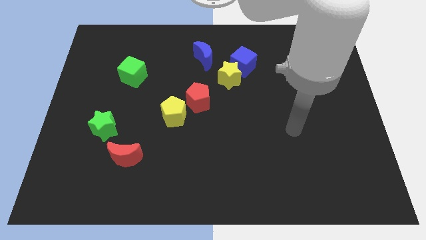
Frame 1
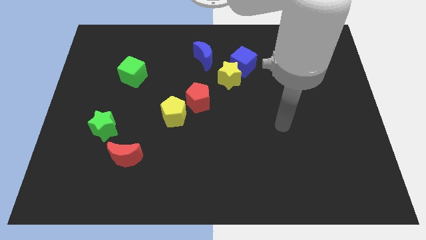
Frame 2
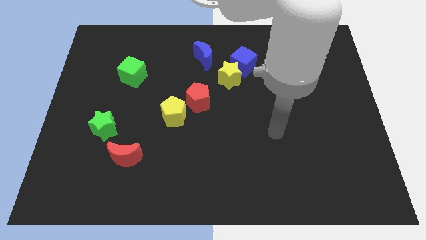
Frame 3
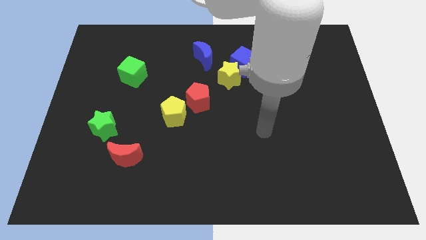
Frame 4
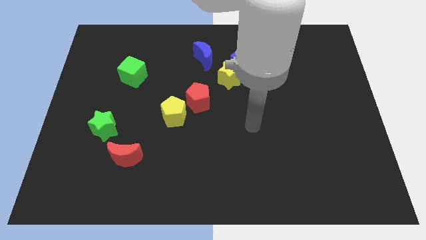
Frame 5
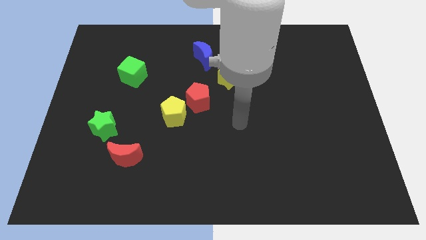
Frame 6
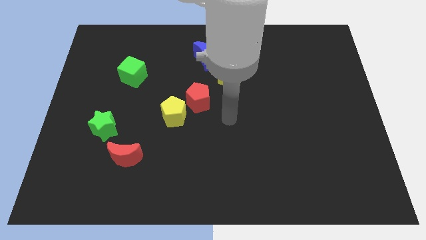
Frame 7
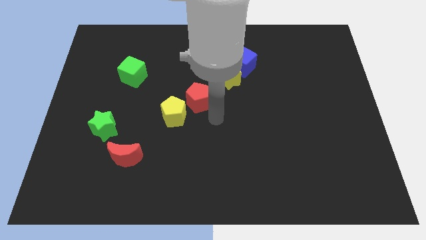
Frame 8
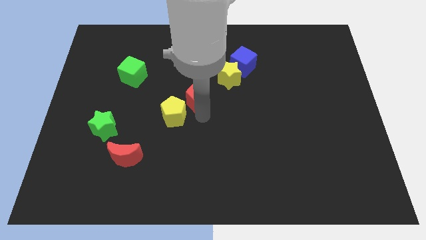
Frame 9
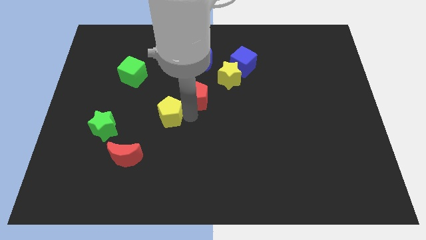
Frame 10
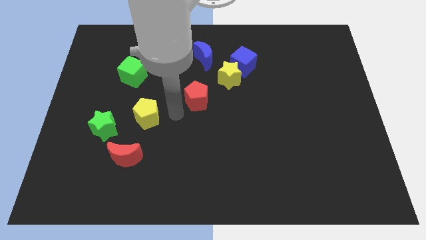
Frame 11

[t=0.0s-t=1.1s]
separate the red pentagon from the yellow pentagon

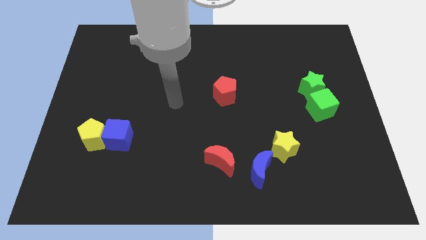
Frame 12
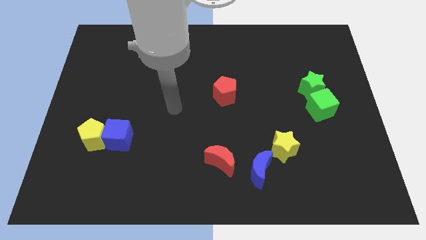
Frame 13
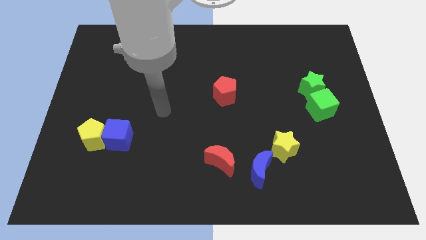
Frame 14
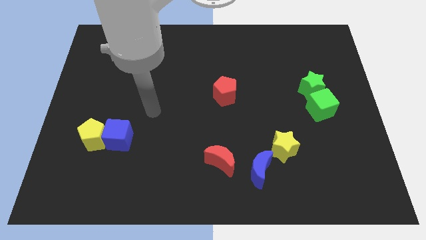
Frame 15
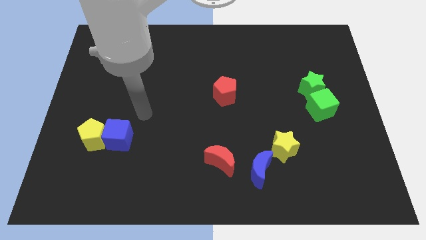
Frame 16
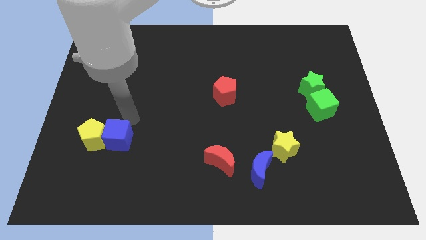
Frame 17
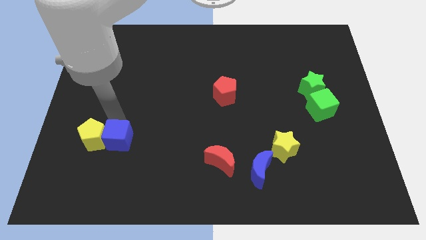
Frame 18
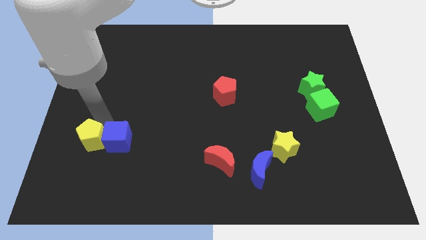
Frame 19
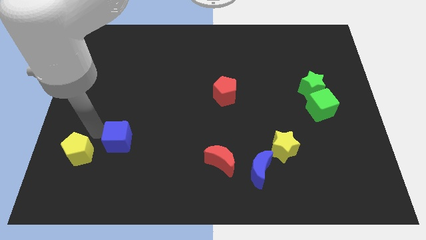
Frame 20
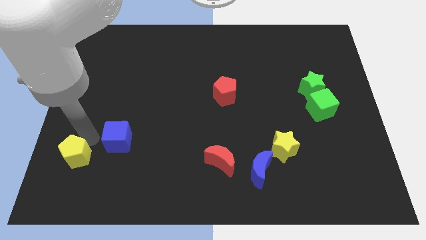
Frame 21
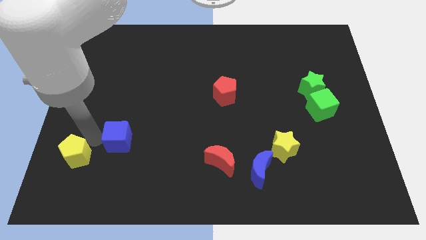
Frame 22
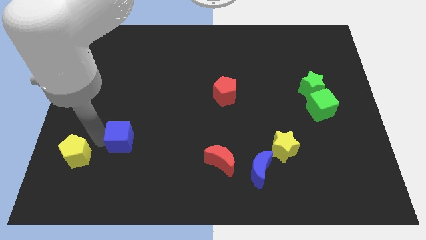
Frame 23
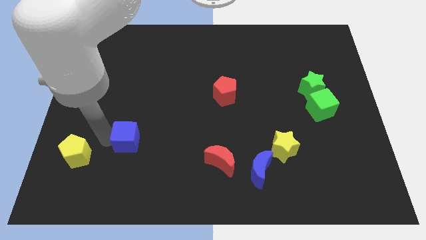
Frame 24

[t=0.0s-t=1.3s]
move the blue cube away from the yellow pentagon

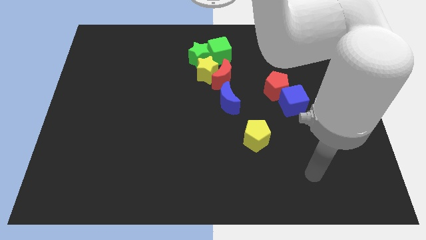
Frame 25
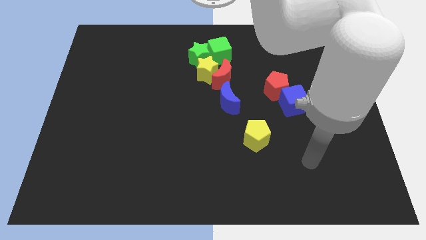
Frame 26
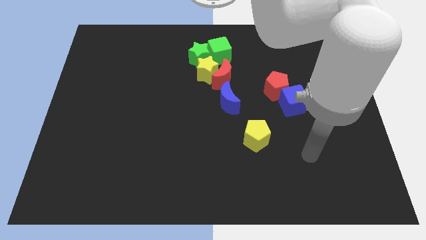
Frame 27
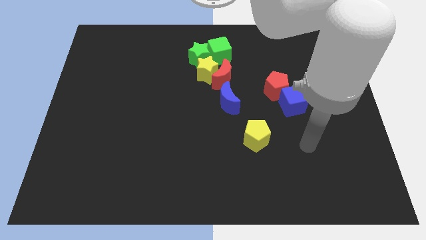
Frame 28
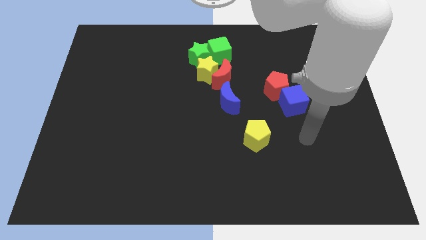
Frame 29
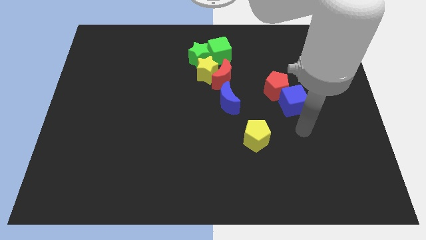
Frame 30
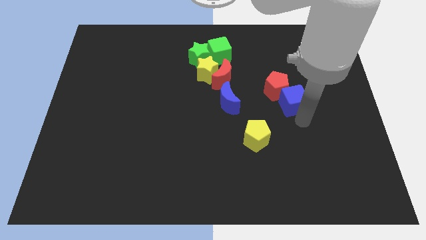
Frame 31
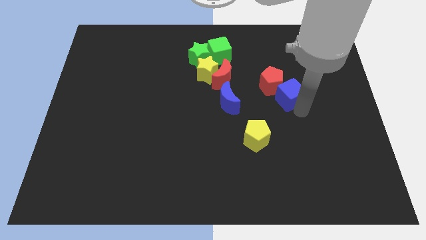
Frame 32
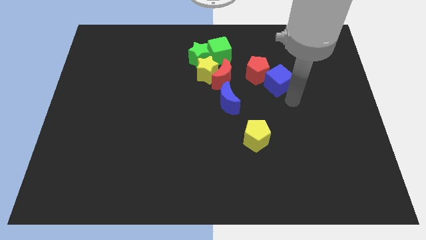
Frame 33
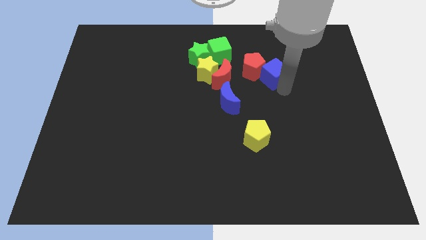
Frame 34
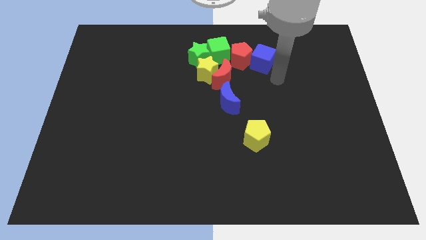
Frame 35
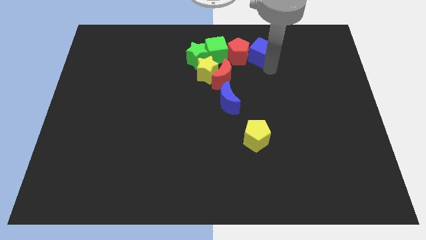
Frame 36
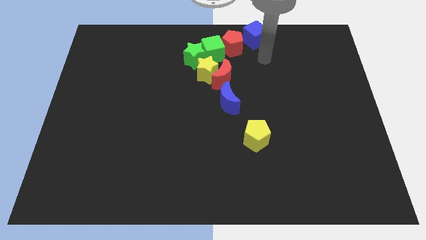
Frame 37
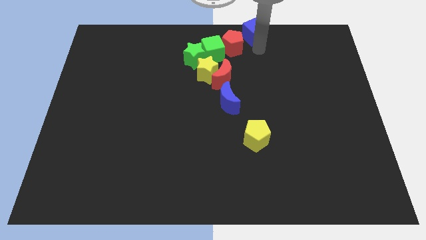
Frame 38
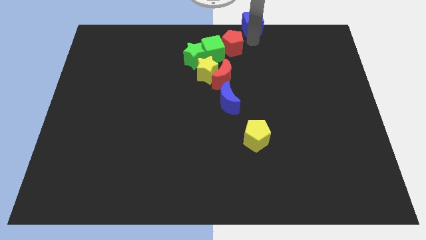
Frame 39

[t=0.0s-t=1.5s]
separate the red pentagon from the blue cube

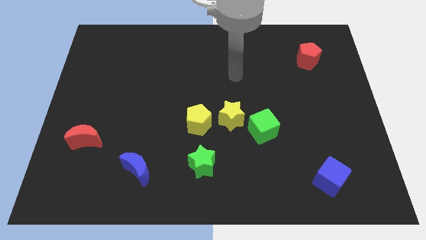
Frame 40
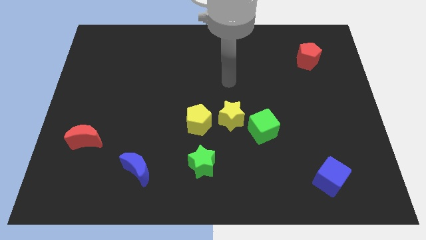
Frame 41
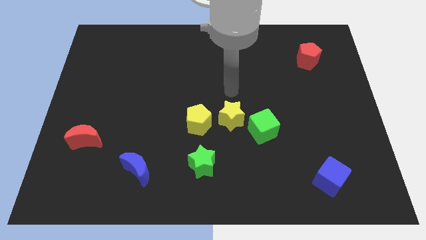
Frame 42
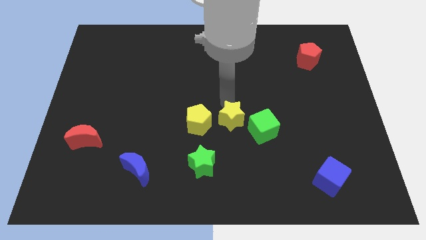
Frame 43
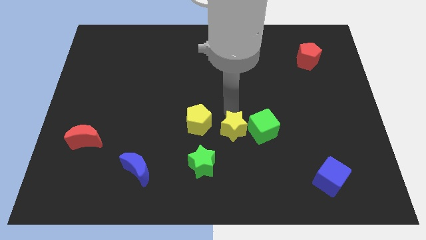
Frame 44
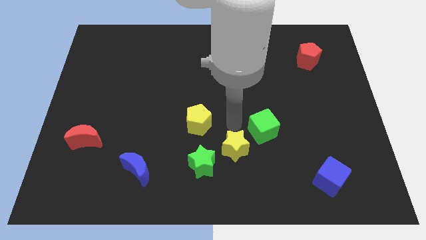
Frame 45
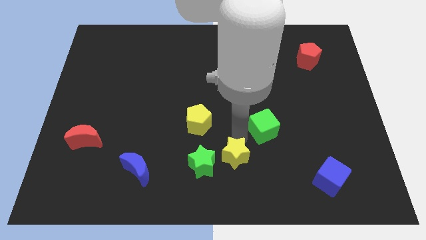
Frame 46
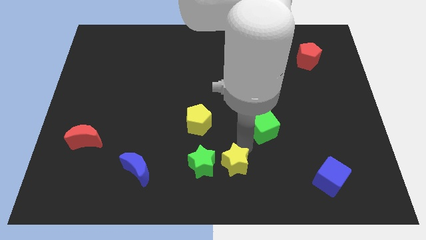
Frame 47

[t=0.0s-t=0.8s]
separate the green cube from the yellow star

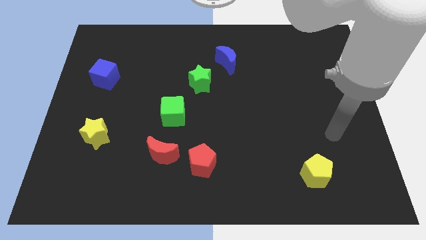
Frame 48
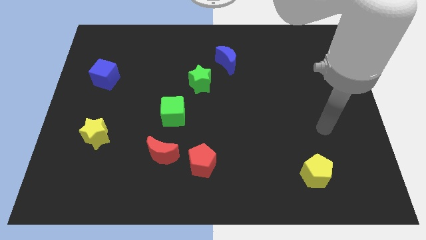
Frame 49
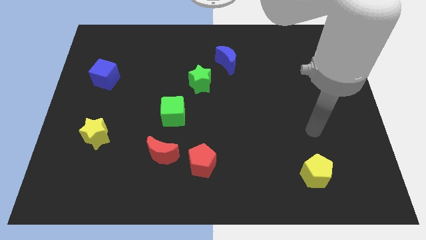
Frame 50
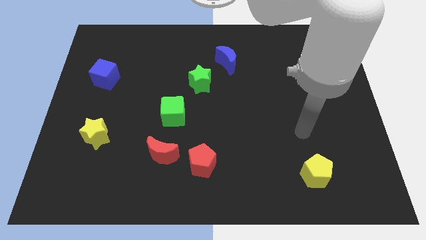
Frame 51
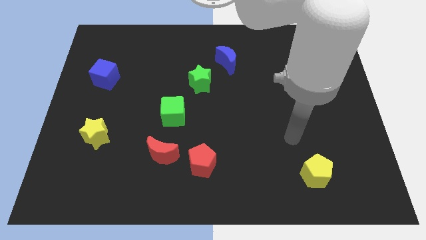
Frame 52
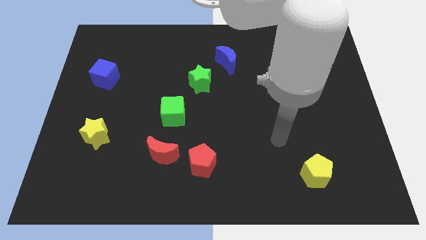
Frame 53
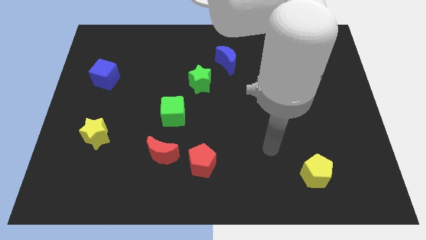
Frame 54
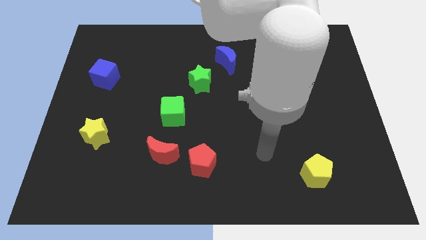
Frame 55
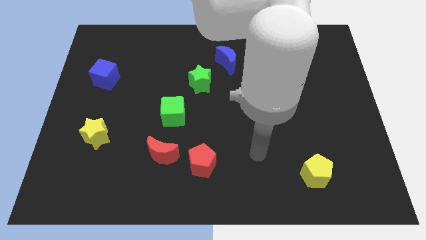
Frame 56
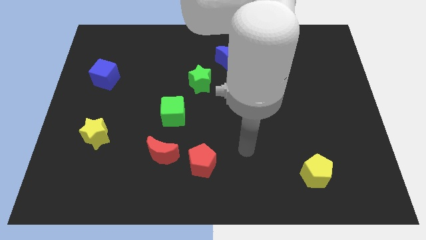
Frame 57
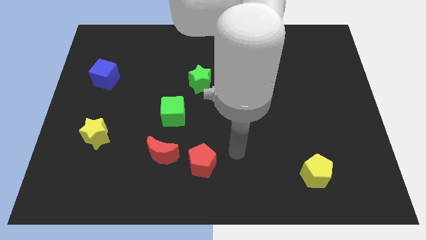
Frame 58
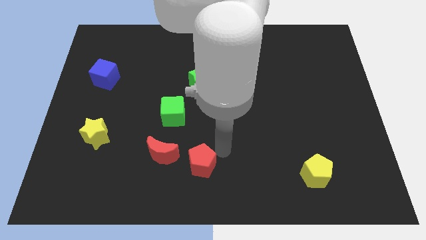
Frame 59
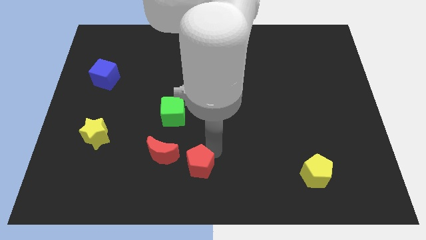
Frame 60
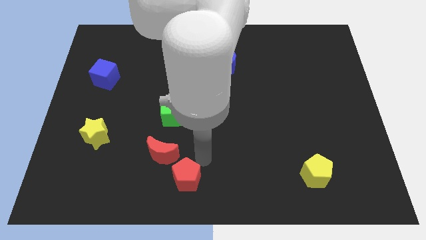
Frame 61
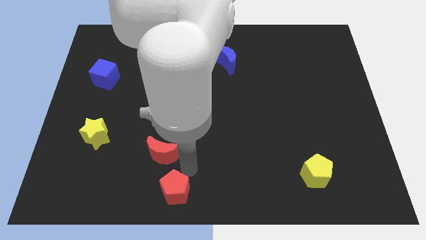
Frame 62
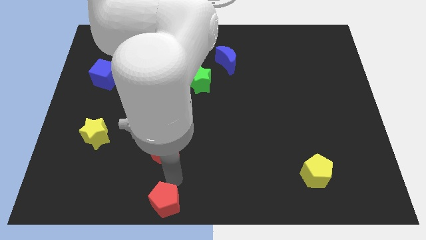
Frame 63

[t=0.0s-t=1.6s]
separate the red moon from the red pentagon

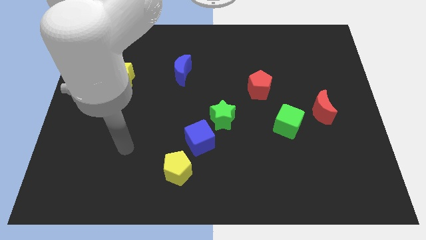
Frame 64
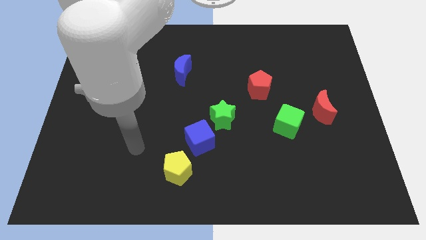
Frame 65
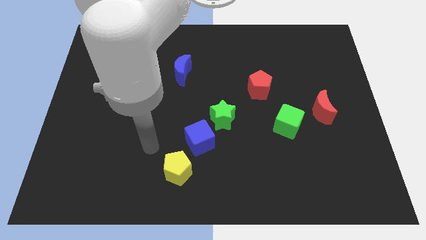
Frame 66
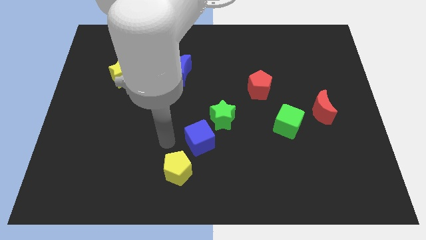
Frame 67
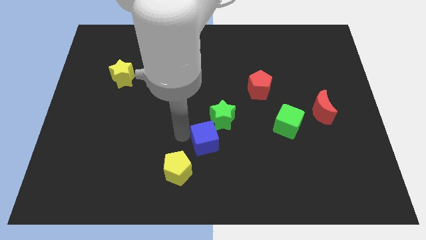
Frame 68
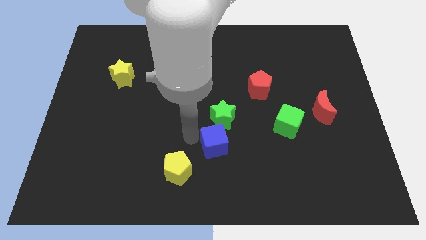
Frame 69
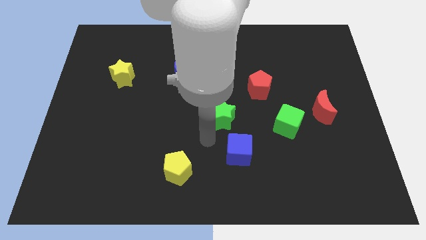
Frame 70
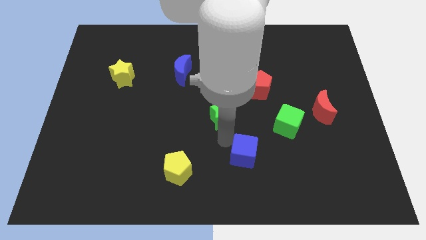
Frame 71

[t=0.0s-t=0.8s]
separate the green star from the blue cube

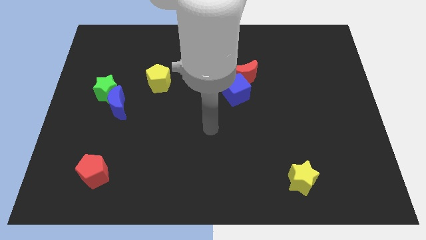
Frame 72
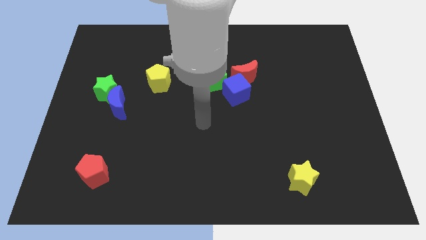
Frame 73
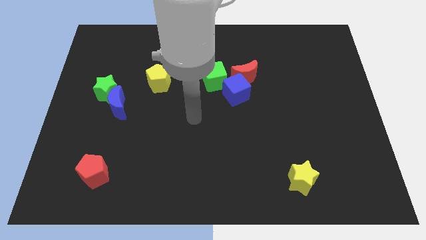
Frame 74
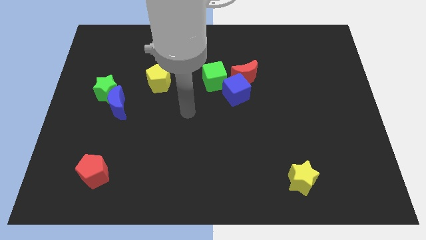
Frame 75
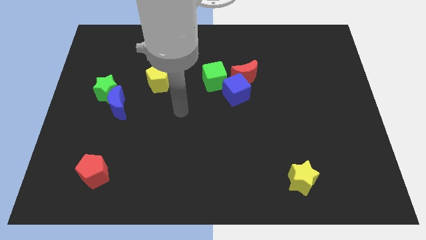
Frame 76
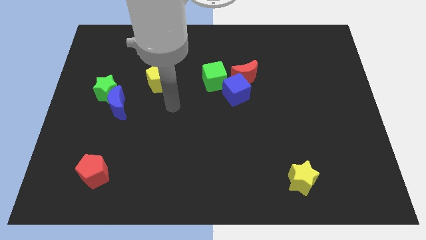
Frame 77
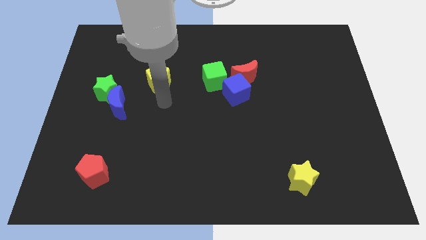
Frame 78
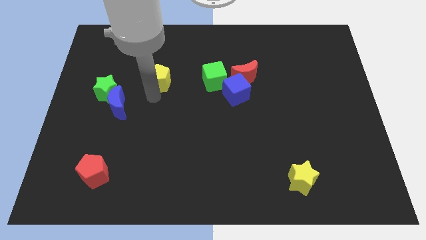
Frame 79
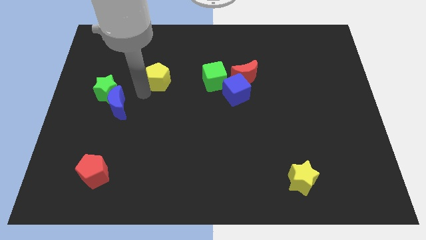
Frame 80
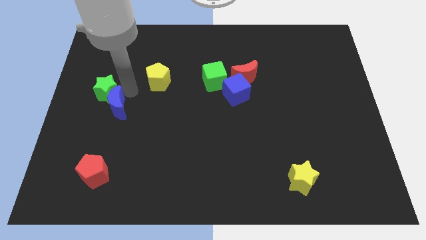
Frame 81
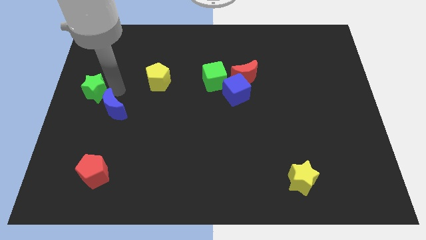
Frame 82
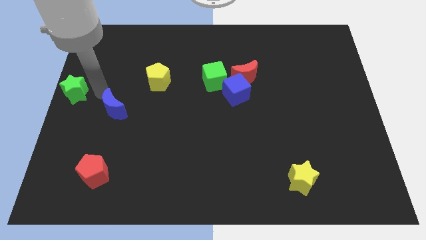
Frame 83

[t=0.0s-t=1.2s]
pull the blue moon apart from the green star

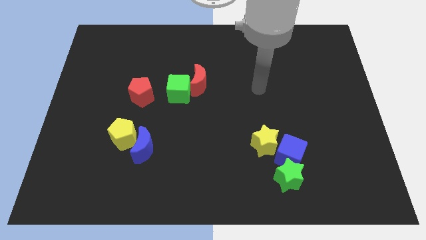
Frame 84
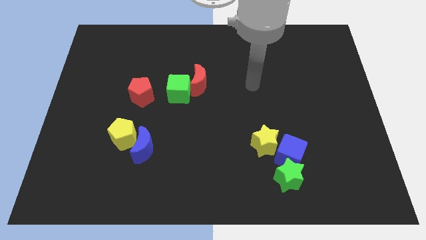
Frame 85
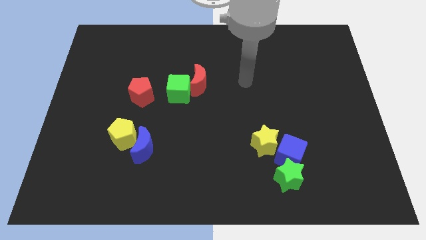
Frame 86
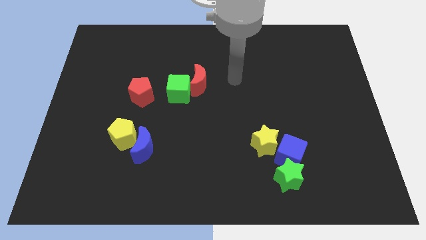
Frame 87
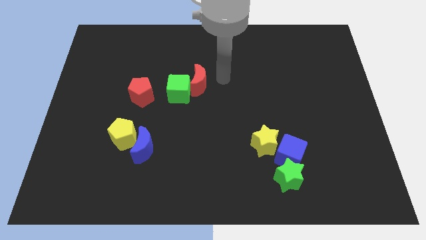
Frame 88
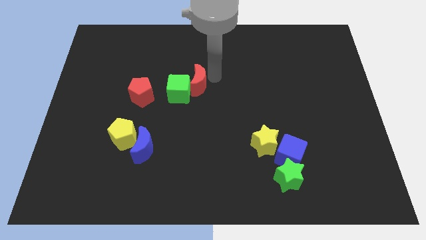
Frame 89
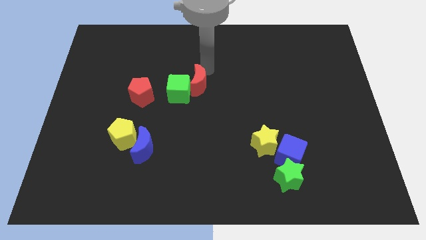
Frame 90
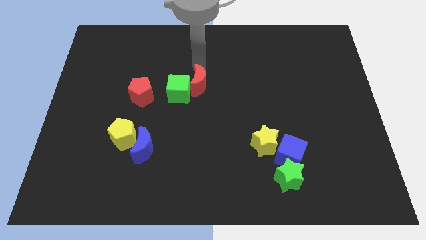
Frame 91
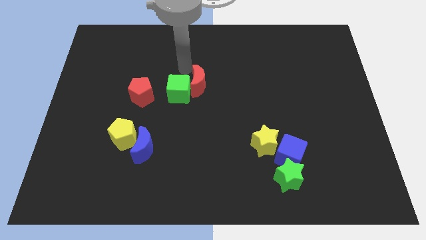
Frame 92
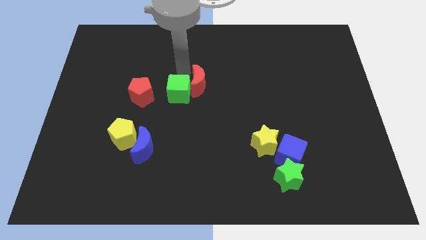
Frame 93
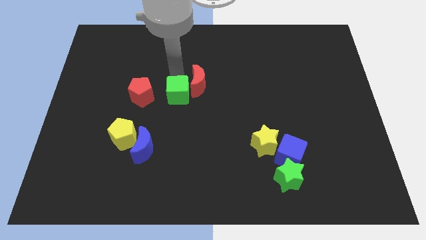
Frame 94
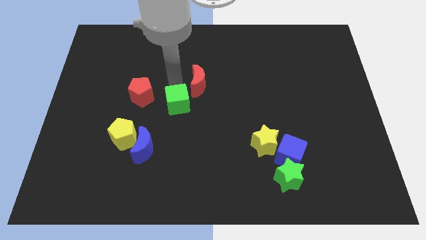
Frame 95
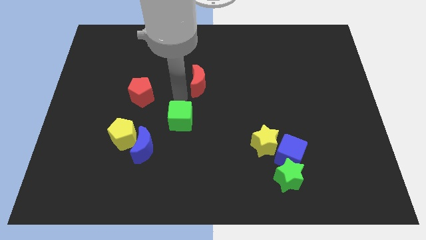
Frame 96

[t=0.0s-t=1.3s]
separate the red moon from the green cube
